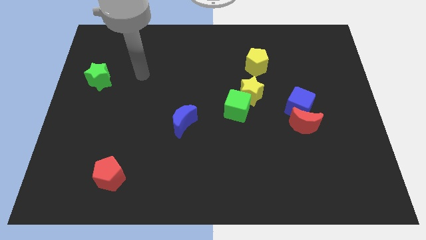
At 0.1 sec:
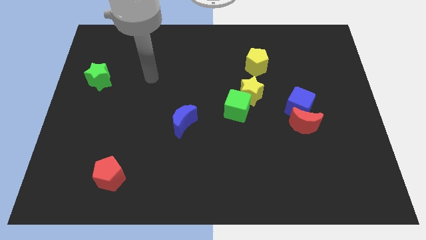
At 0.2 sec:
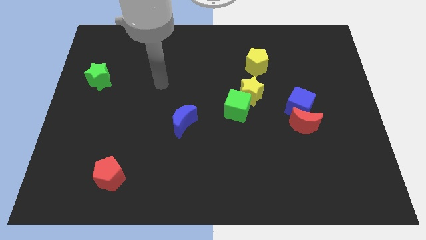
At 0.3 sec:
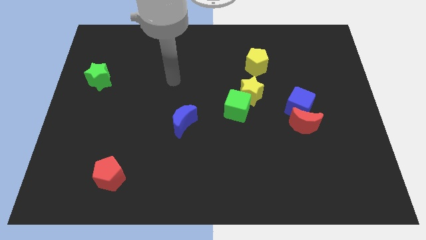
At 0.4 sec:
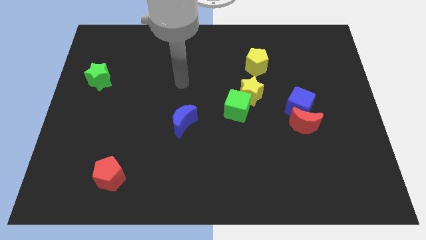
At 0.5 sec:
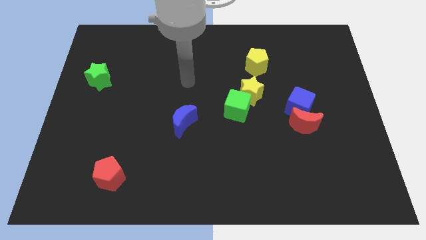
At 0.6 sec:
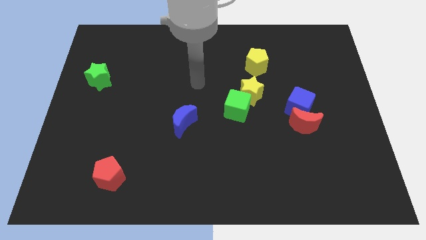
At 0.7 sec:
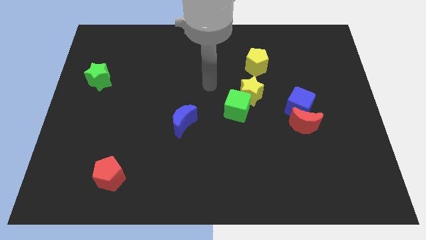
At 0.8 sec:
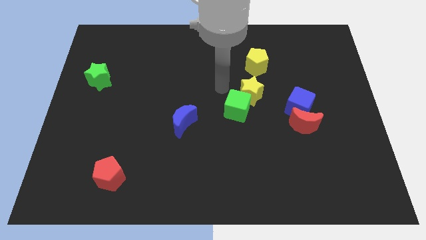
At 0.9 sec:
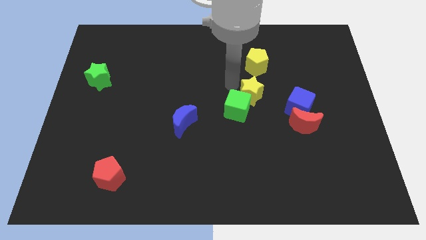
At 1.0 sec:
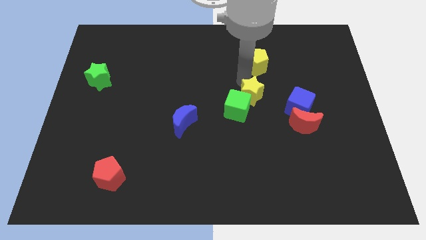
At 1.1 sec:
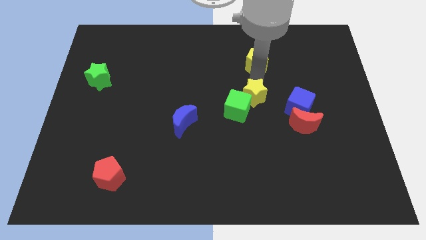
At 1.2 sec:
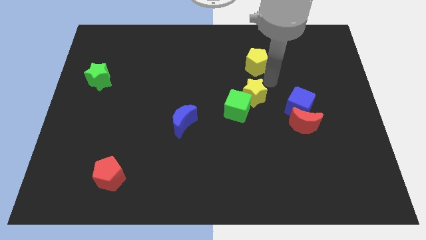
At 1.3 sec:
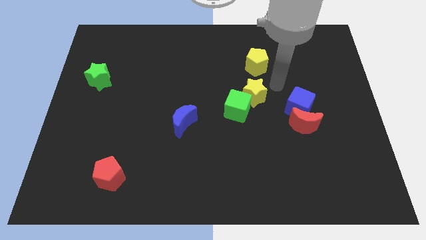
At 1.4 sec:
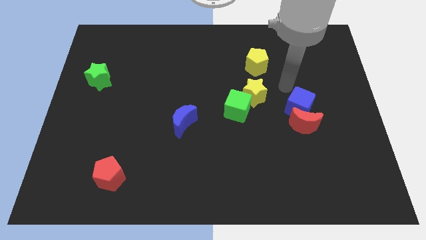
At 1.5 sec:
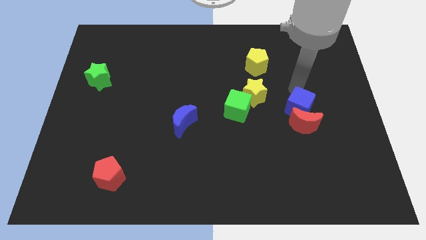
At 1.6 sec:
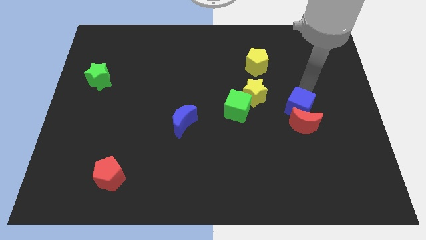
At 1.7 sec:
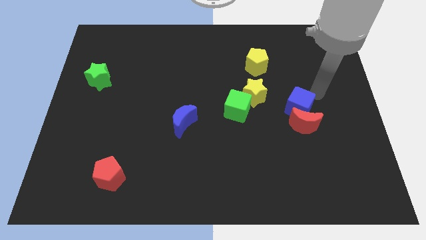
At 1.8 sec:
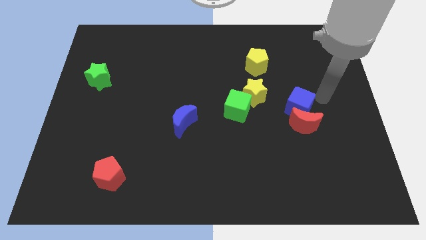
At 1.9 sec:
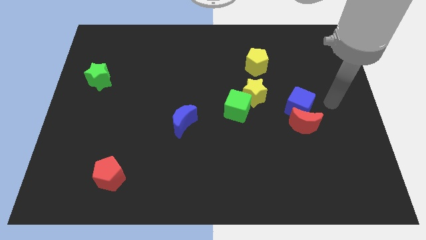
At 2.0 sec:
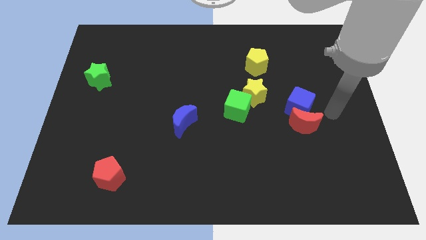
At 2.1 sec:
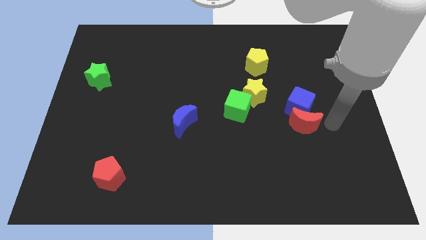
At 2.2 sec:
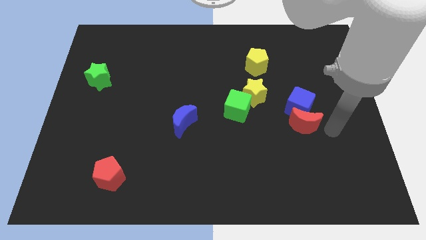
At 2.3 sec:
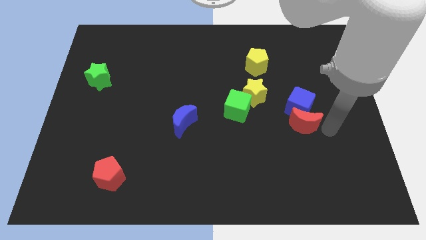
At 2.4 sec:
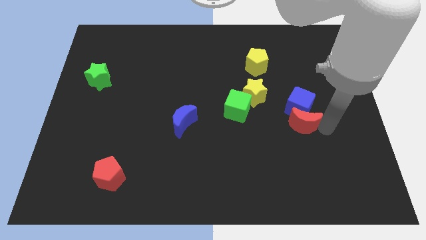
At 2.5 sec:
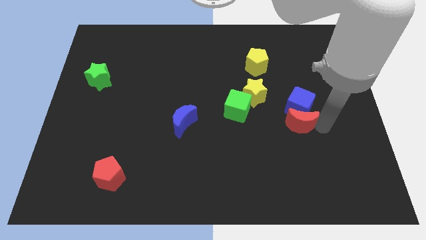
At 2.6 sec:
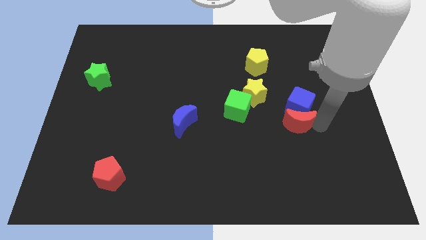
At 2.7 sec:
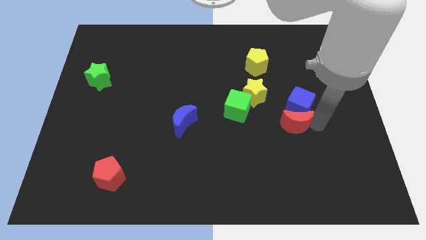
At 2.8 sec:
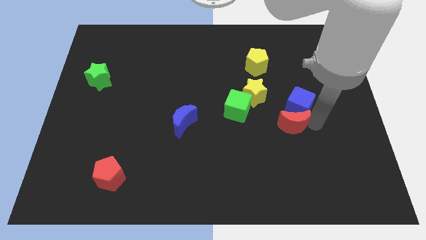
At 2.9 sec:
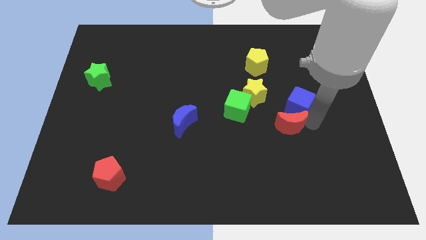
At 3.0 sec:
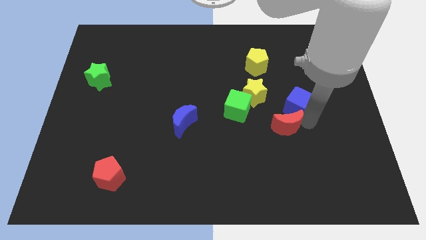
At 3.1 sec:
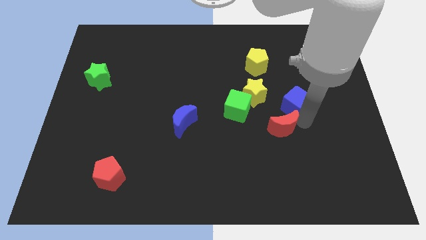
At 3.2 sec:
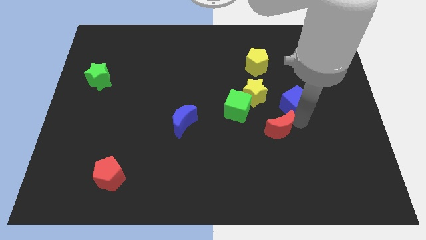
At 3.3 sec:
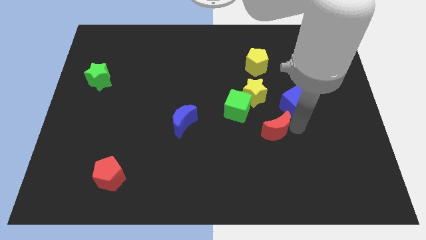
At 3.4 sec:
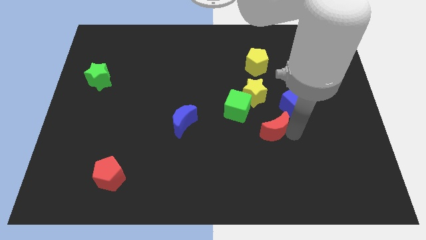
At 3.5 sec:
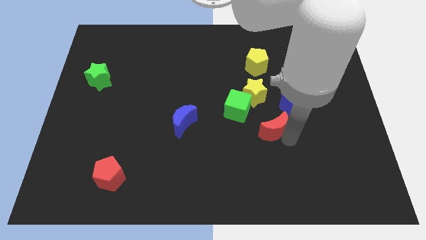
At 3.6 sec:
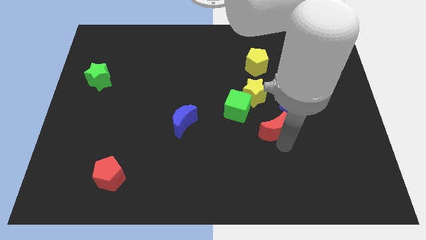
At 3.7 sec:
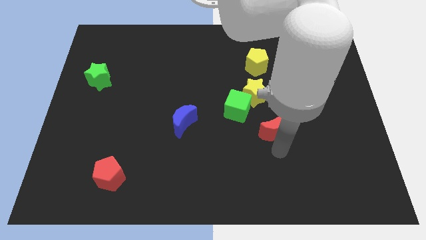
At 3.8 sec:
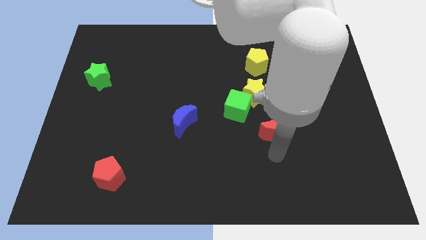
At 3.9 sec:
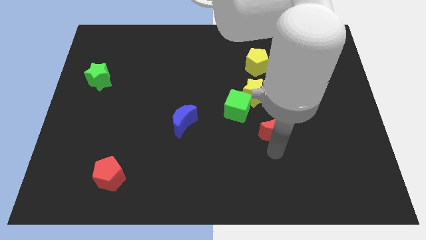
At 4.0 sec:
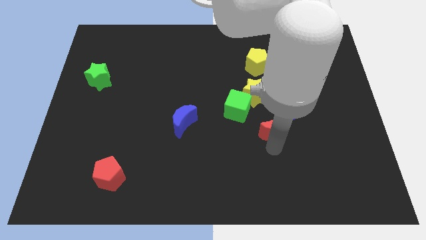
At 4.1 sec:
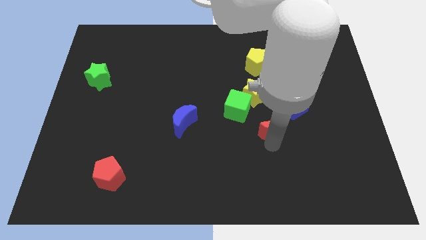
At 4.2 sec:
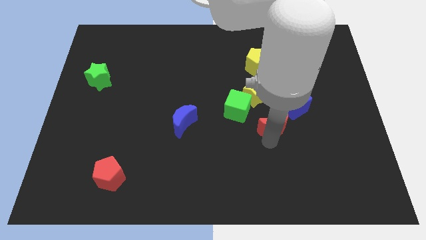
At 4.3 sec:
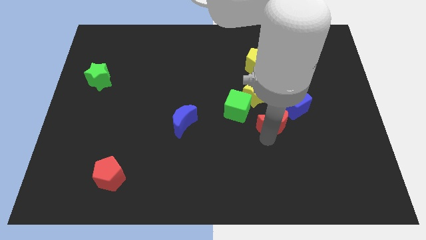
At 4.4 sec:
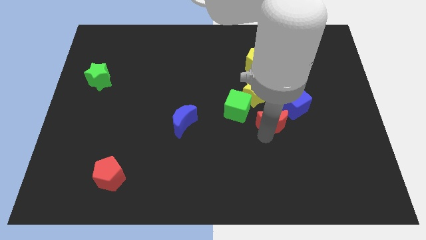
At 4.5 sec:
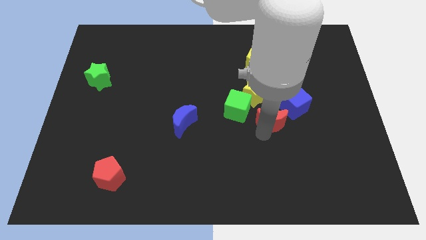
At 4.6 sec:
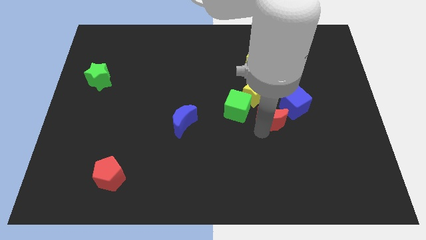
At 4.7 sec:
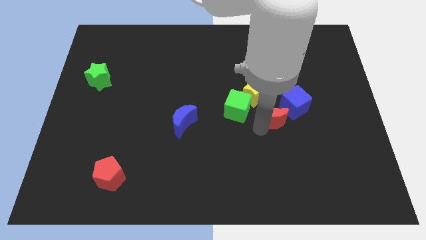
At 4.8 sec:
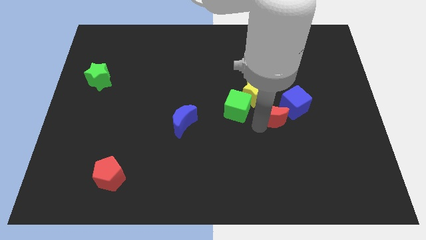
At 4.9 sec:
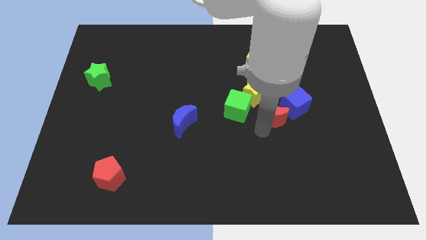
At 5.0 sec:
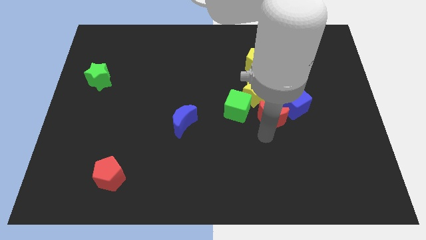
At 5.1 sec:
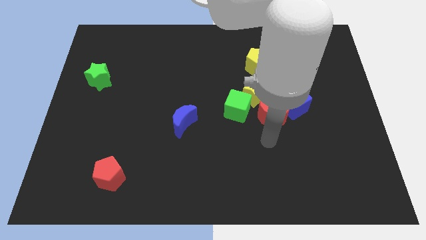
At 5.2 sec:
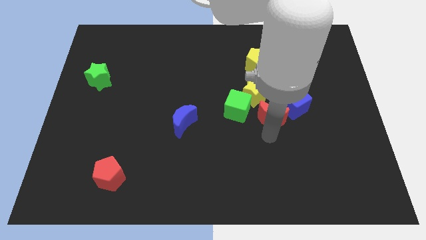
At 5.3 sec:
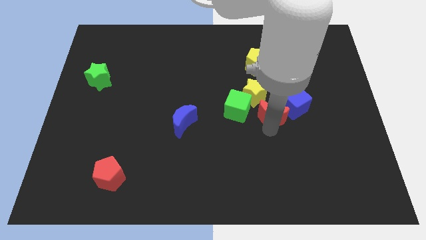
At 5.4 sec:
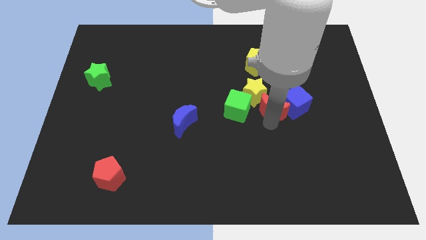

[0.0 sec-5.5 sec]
slightly push the red moon upwards and left

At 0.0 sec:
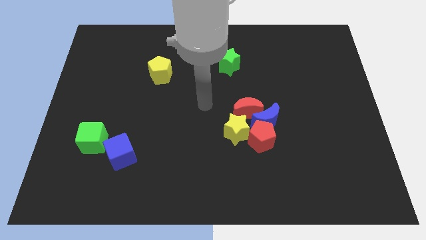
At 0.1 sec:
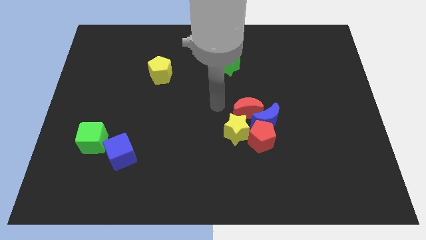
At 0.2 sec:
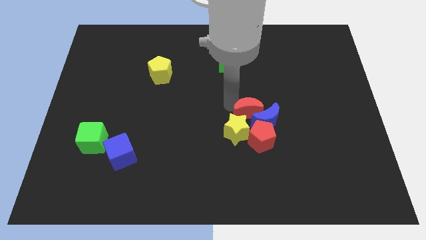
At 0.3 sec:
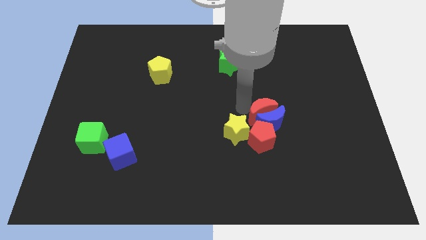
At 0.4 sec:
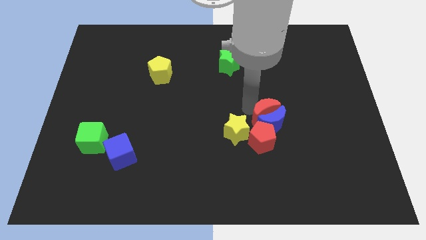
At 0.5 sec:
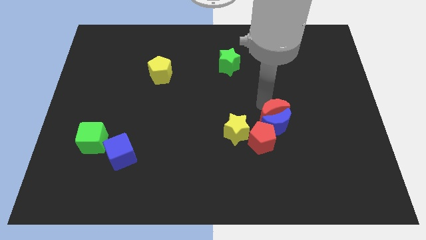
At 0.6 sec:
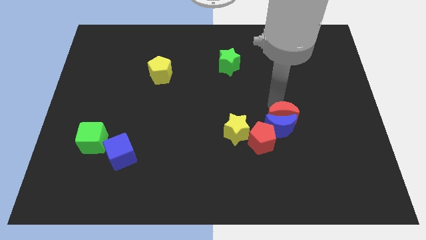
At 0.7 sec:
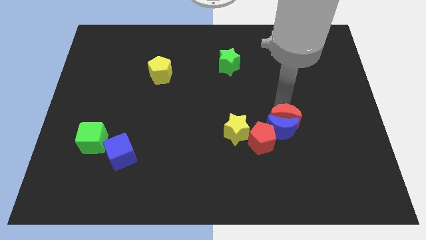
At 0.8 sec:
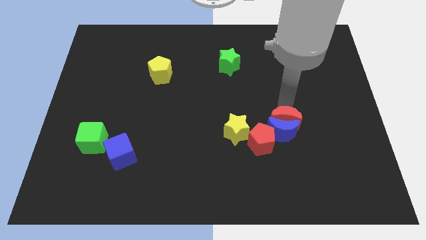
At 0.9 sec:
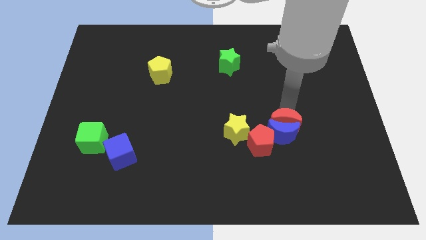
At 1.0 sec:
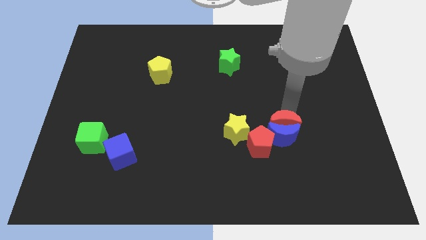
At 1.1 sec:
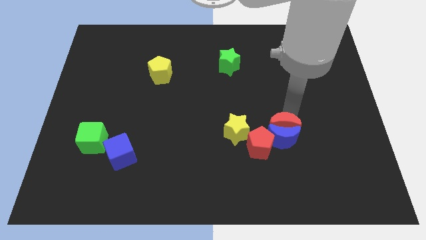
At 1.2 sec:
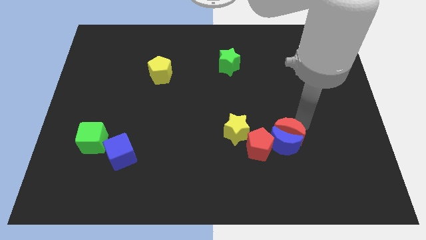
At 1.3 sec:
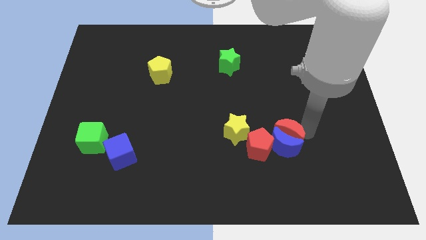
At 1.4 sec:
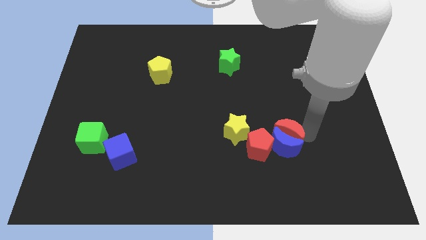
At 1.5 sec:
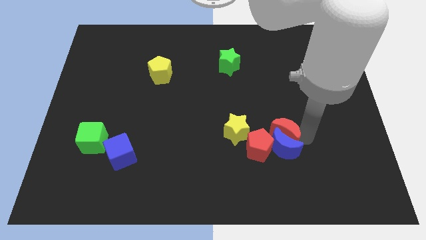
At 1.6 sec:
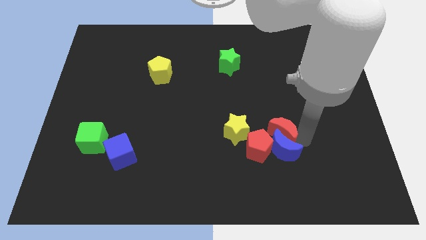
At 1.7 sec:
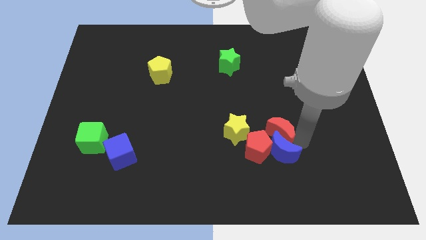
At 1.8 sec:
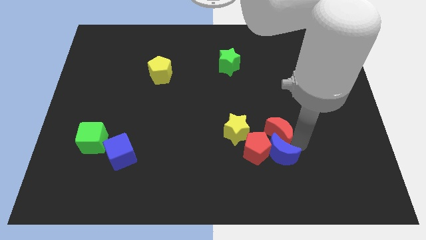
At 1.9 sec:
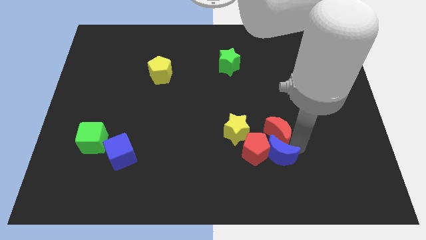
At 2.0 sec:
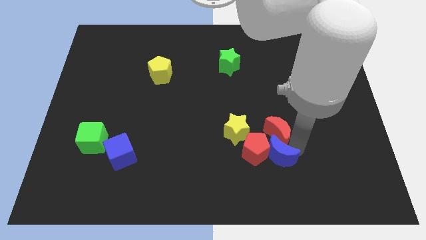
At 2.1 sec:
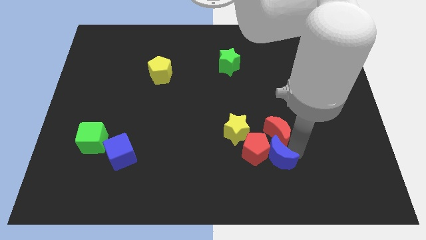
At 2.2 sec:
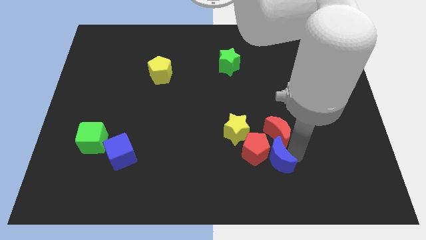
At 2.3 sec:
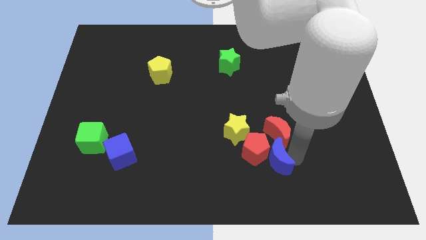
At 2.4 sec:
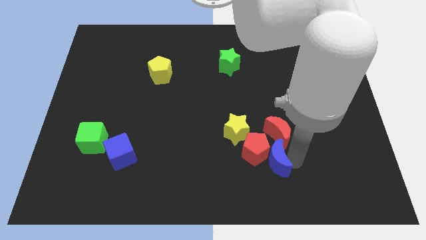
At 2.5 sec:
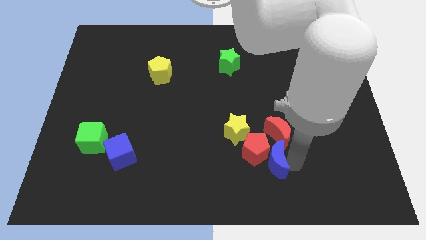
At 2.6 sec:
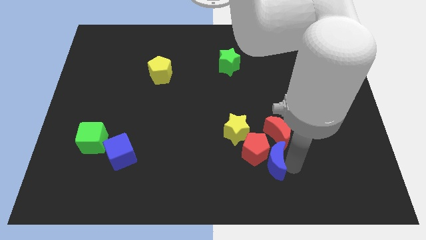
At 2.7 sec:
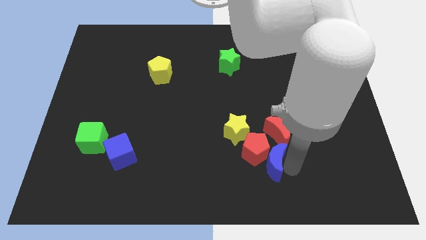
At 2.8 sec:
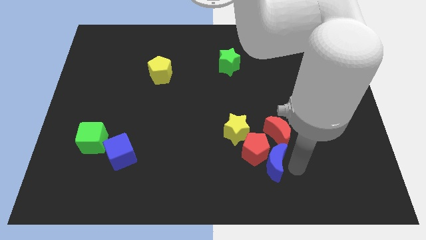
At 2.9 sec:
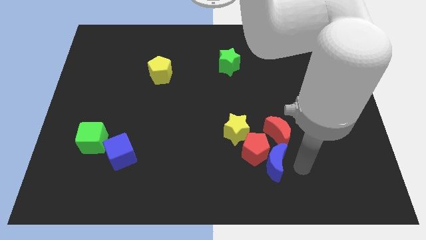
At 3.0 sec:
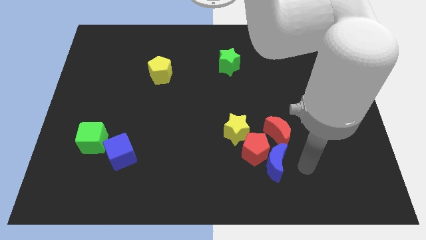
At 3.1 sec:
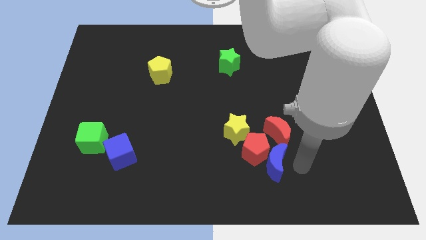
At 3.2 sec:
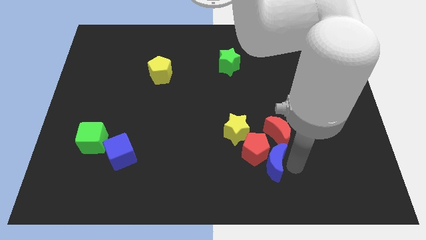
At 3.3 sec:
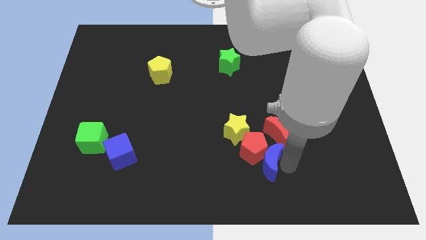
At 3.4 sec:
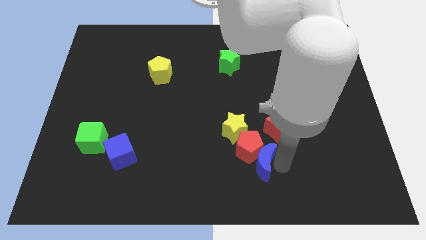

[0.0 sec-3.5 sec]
slightly push the blue moon down and to the left diagonally
